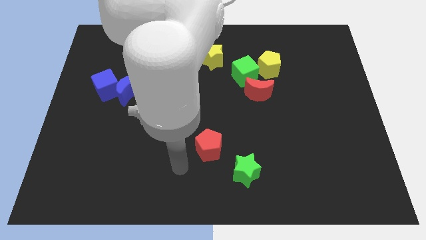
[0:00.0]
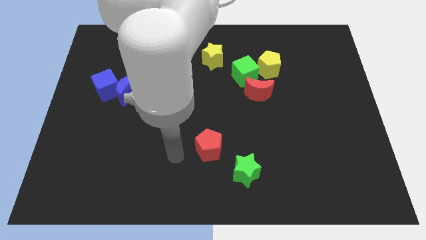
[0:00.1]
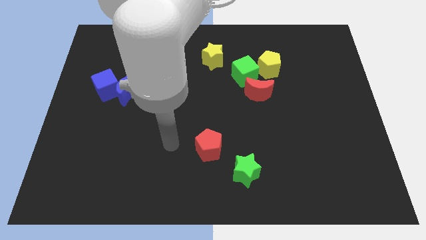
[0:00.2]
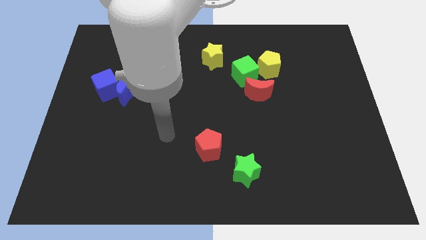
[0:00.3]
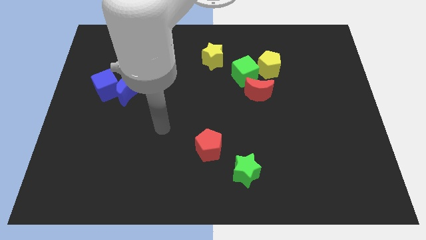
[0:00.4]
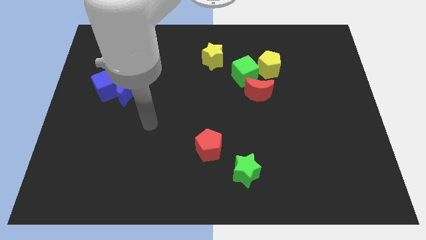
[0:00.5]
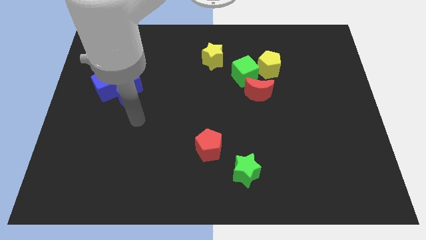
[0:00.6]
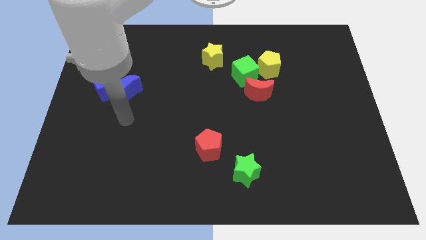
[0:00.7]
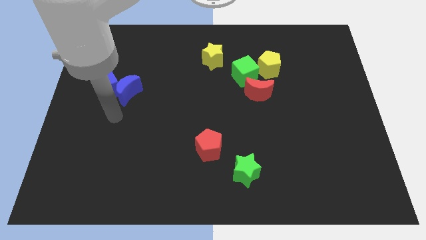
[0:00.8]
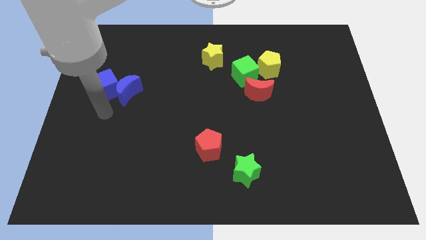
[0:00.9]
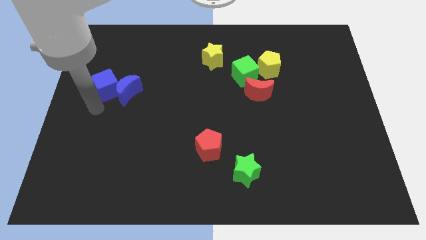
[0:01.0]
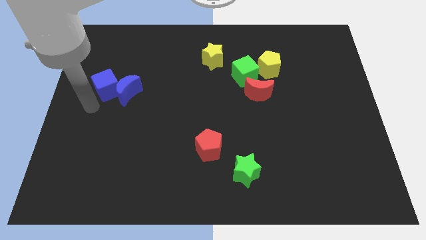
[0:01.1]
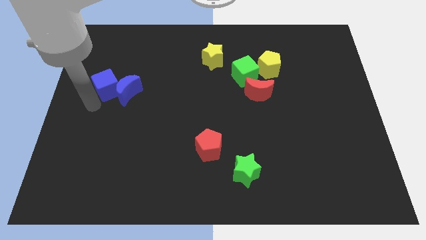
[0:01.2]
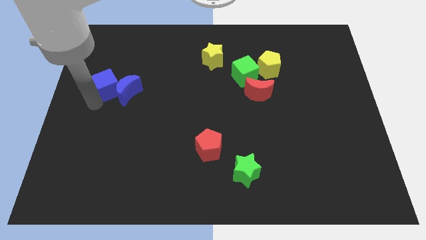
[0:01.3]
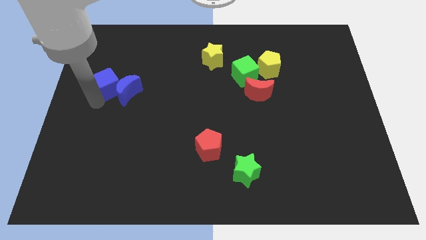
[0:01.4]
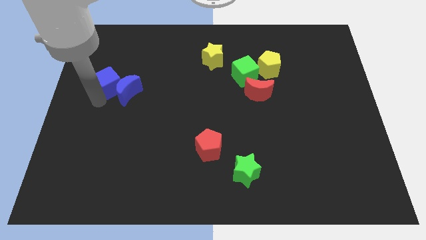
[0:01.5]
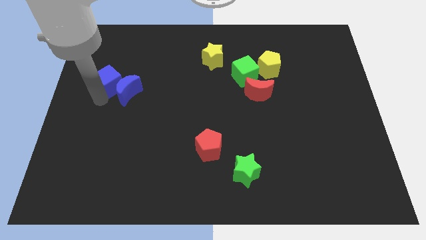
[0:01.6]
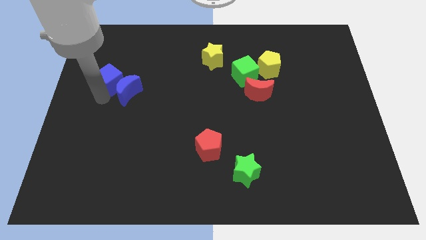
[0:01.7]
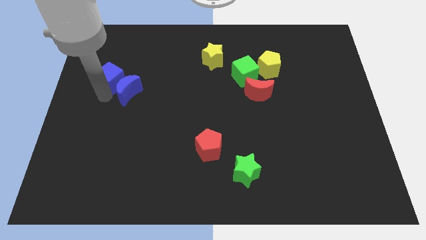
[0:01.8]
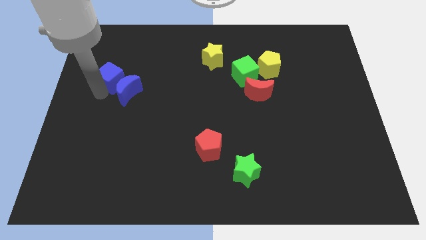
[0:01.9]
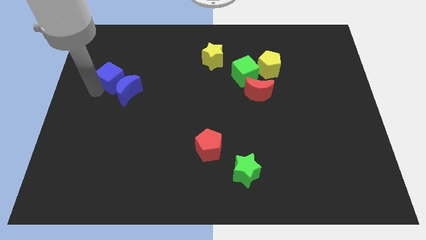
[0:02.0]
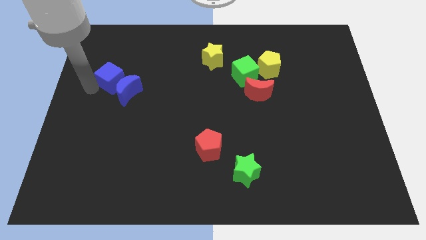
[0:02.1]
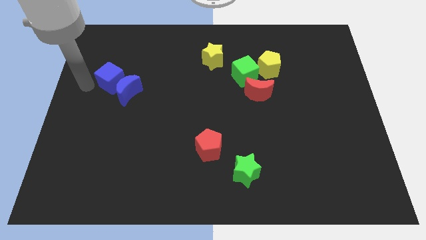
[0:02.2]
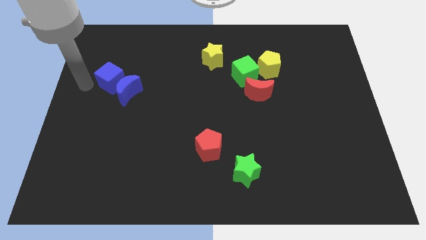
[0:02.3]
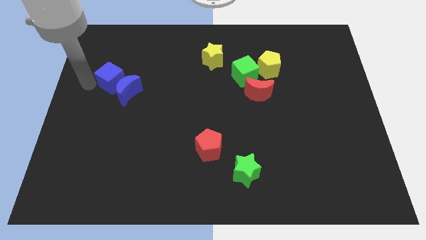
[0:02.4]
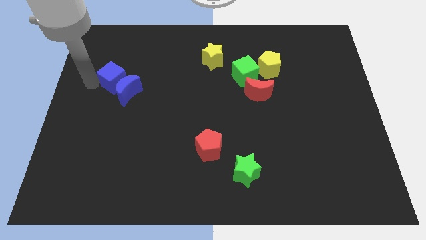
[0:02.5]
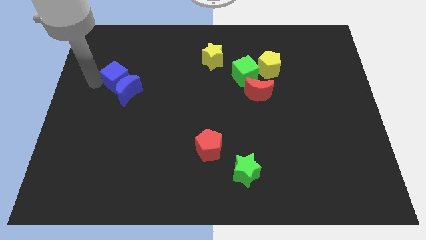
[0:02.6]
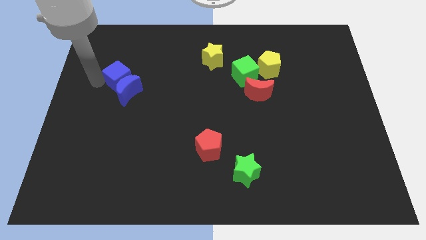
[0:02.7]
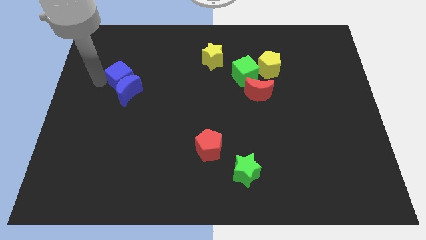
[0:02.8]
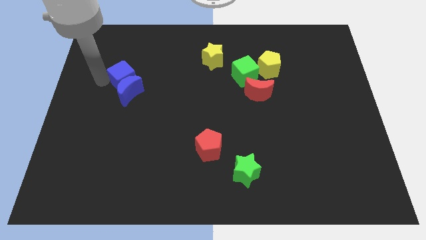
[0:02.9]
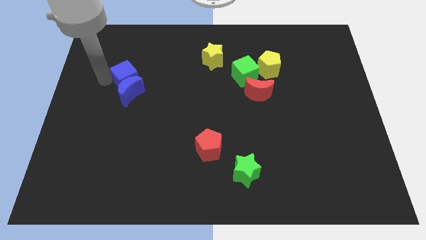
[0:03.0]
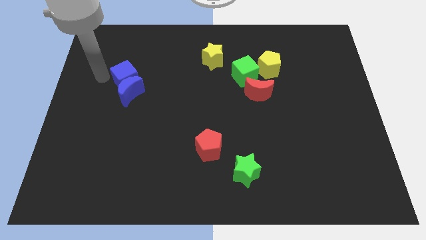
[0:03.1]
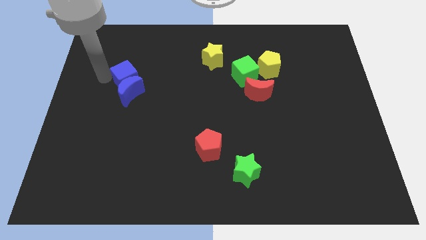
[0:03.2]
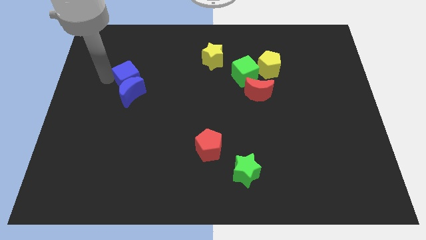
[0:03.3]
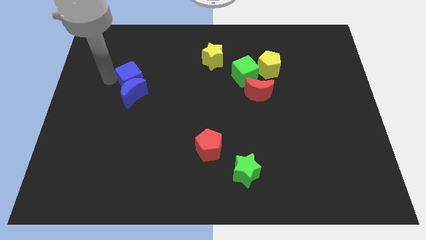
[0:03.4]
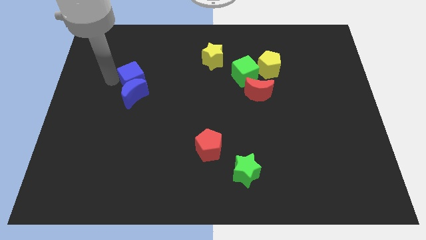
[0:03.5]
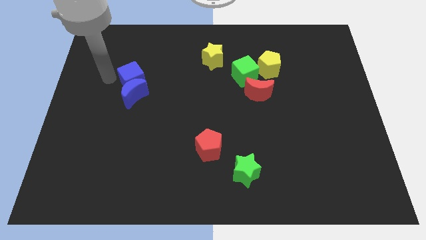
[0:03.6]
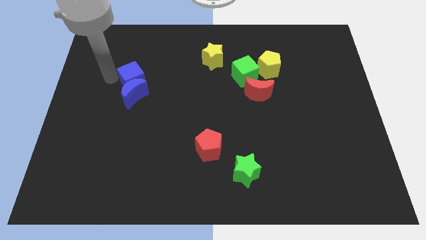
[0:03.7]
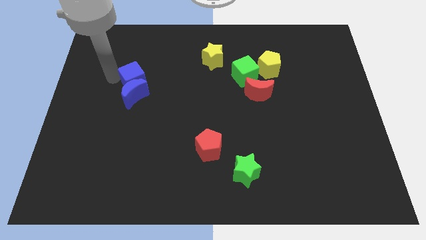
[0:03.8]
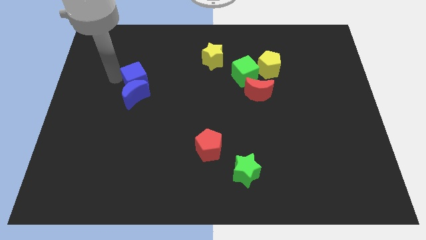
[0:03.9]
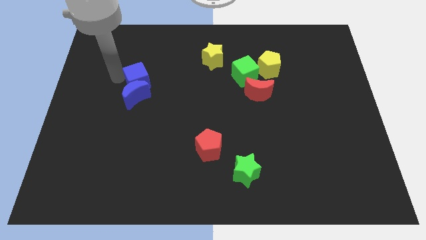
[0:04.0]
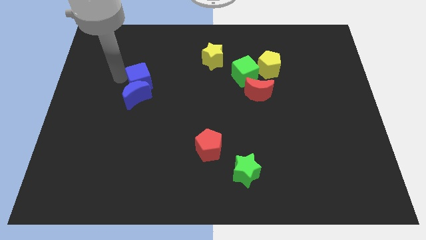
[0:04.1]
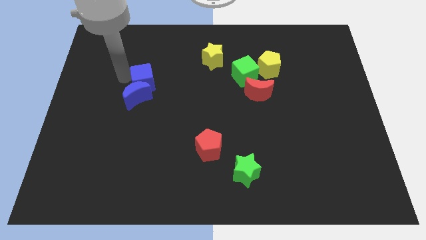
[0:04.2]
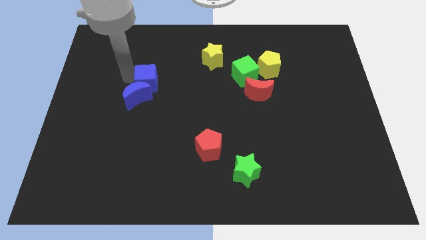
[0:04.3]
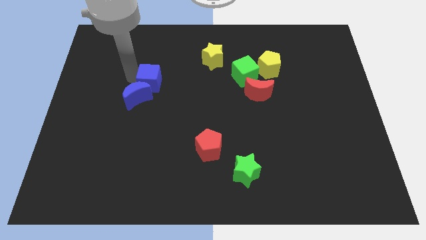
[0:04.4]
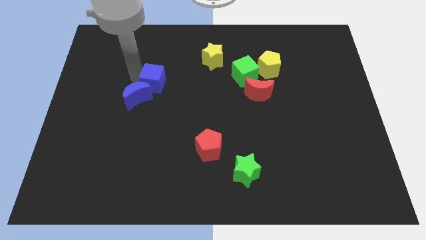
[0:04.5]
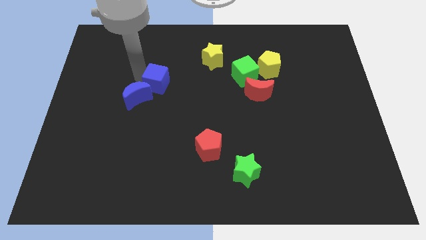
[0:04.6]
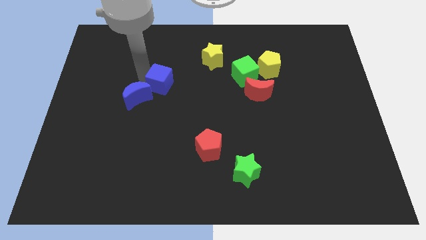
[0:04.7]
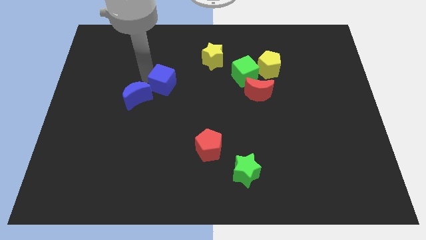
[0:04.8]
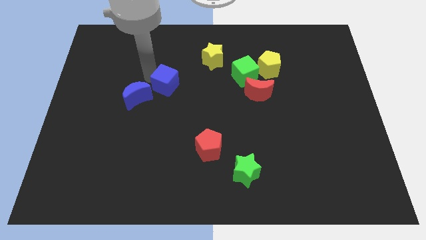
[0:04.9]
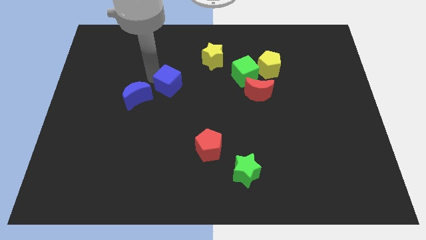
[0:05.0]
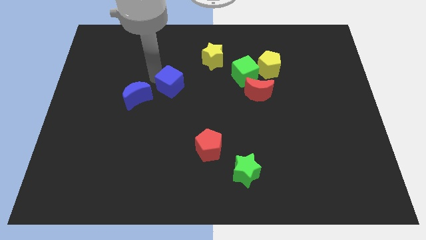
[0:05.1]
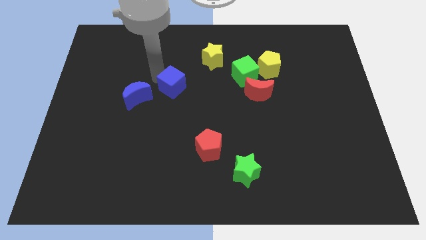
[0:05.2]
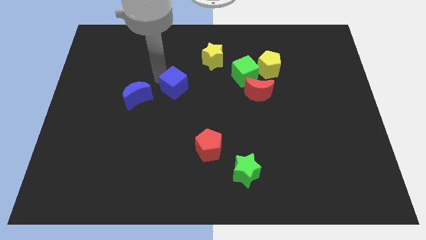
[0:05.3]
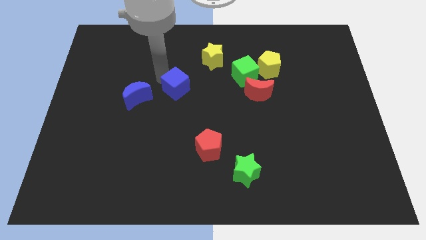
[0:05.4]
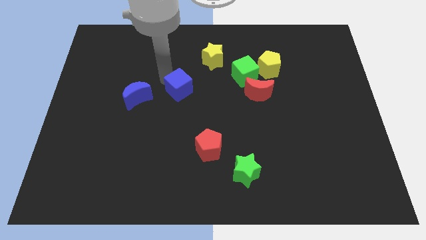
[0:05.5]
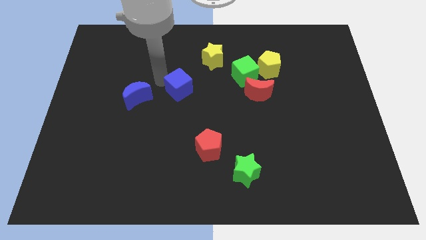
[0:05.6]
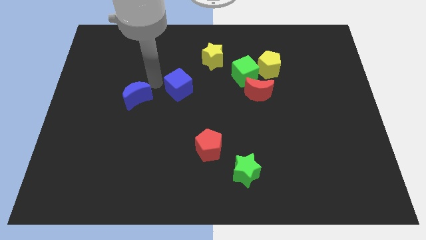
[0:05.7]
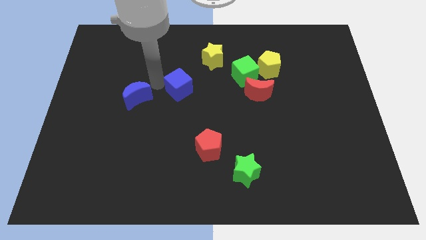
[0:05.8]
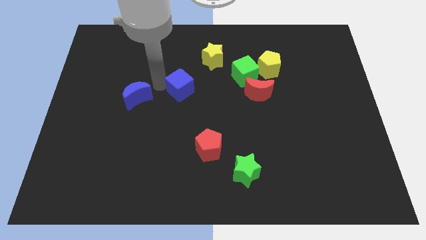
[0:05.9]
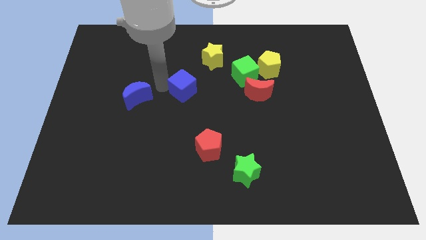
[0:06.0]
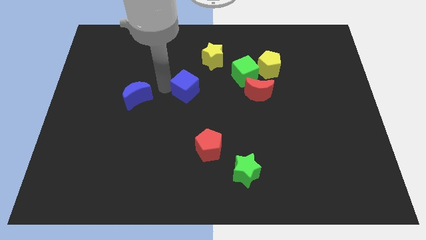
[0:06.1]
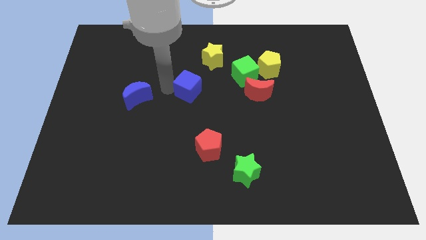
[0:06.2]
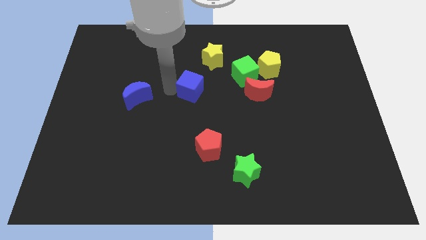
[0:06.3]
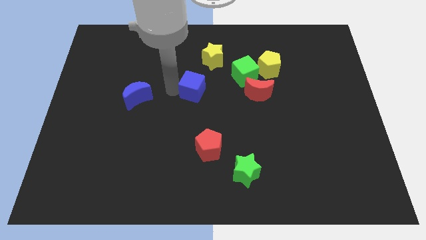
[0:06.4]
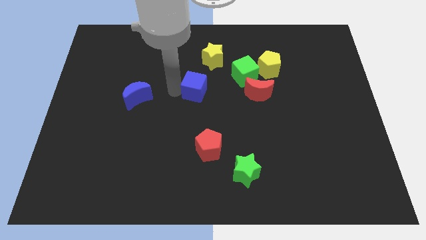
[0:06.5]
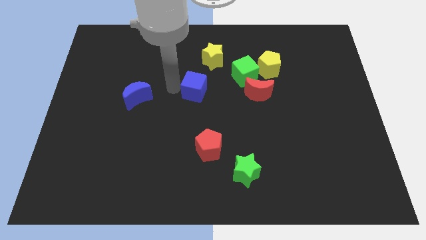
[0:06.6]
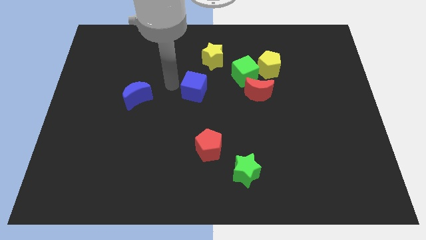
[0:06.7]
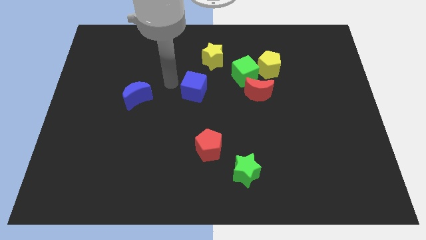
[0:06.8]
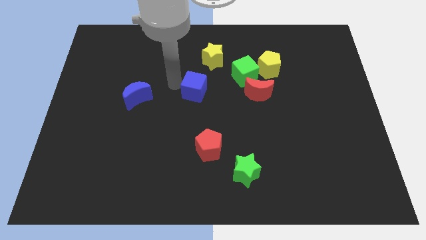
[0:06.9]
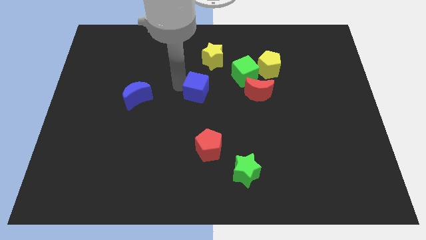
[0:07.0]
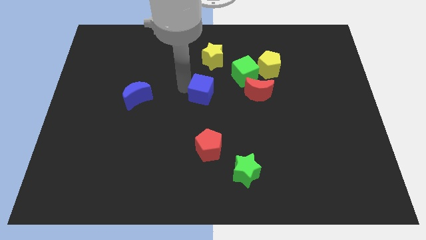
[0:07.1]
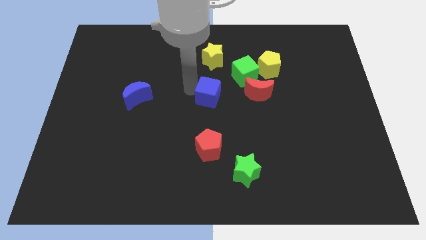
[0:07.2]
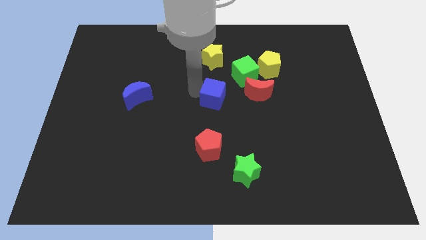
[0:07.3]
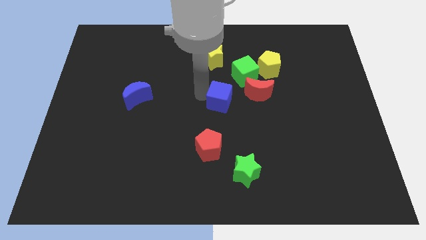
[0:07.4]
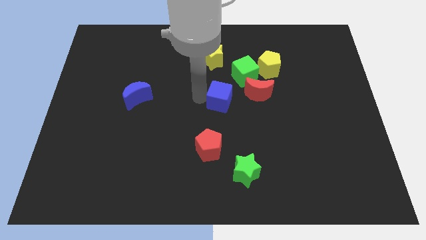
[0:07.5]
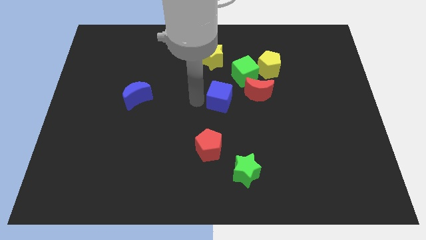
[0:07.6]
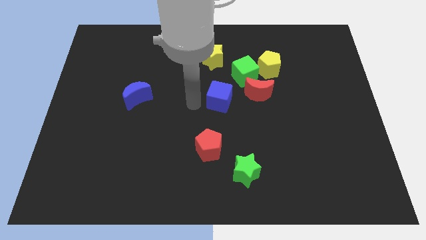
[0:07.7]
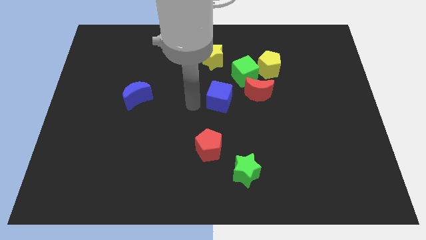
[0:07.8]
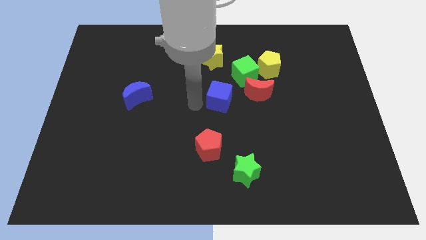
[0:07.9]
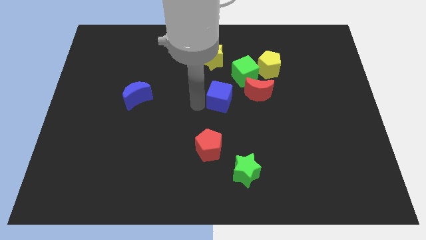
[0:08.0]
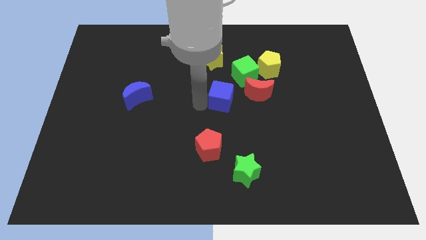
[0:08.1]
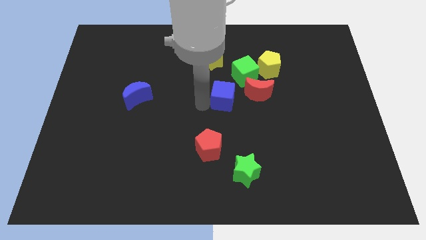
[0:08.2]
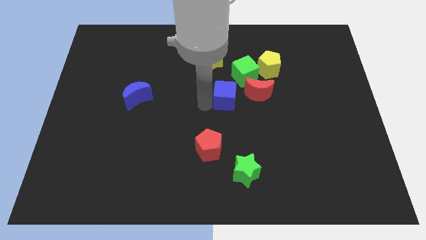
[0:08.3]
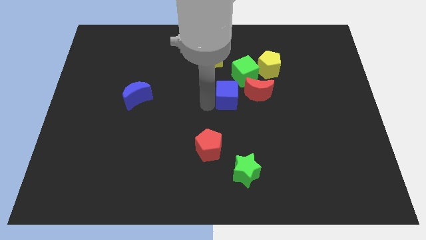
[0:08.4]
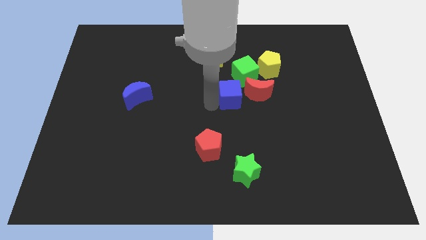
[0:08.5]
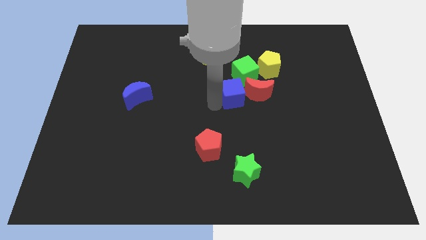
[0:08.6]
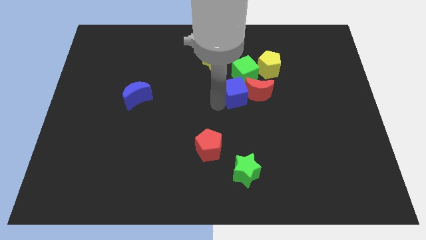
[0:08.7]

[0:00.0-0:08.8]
put the blue cube next to the red moon
